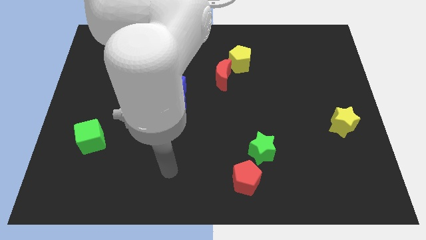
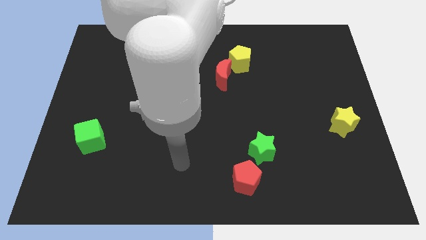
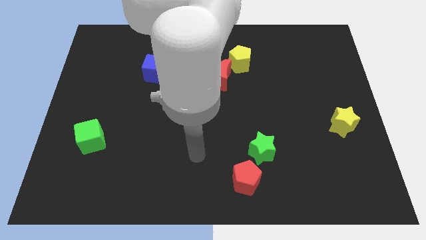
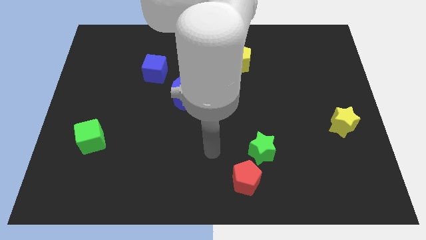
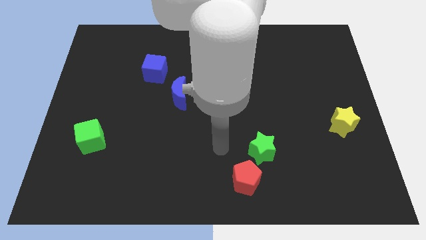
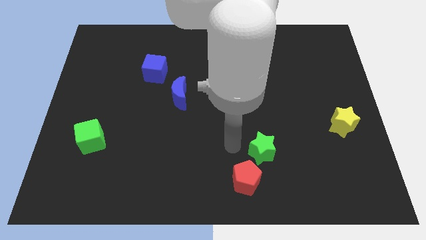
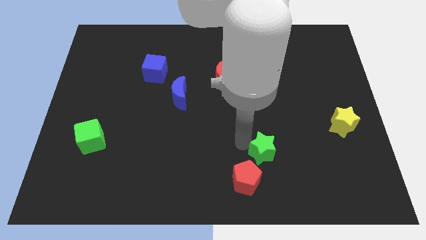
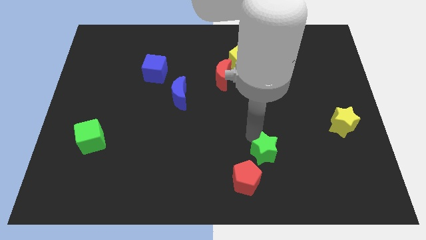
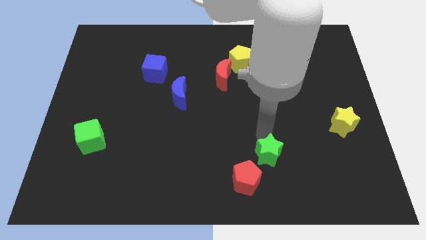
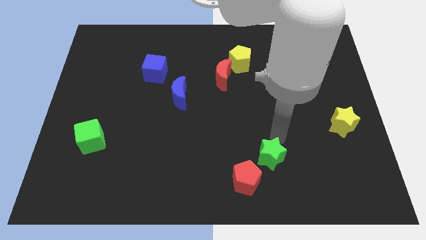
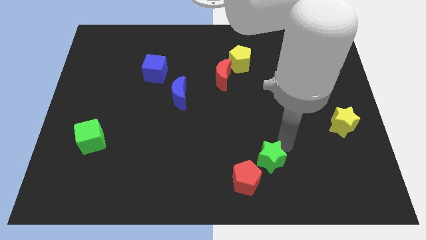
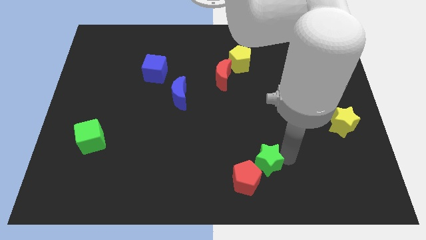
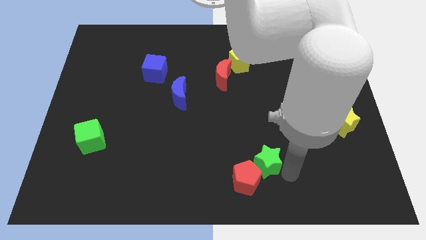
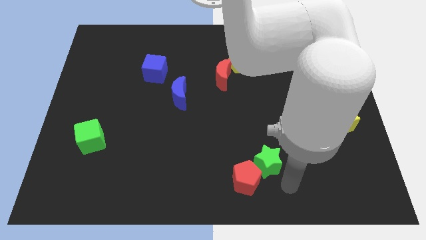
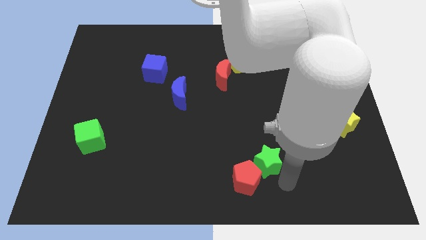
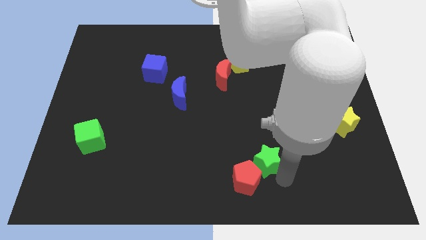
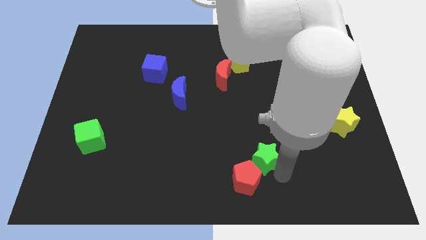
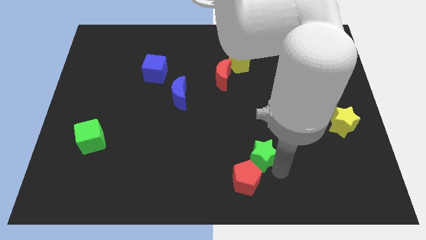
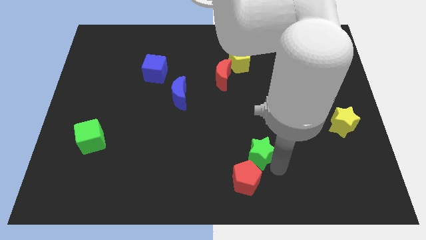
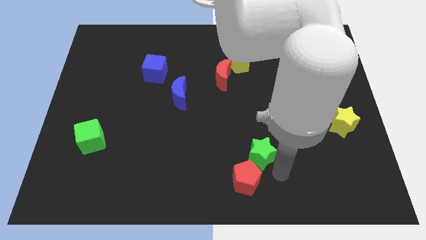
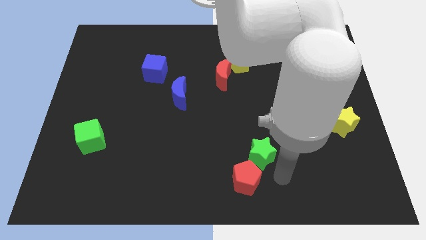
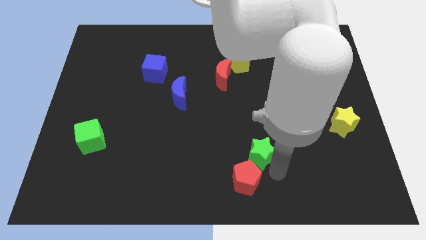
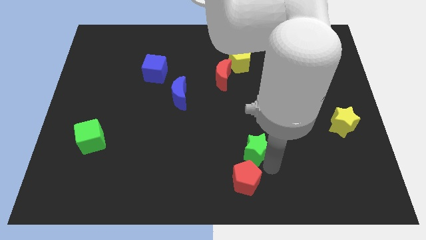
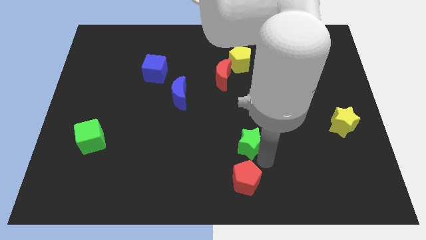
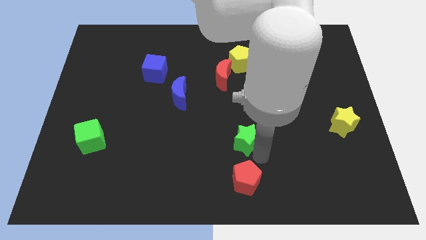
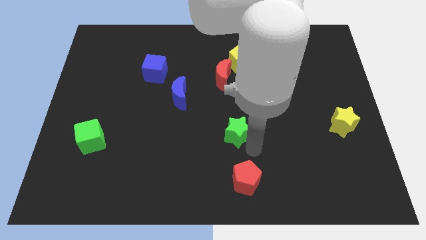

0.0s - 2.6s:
slide the green star somewhat diagonally up and left

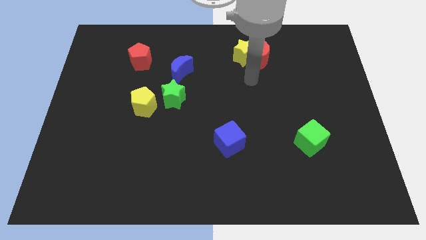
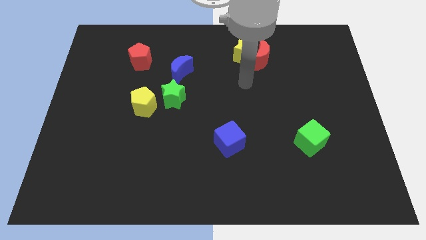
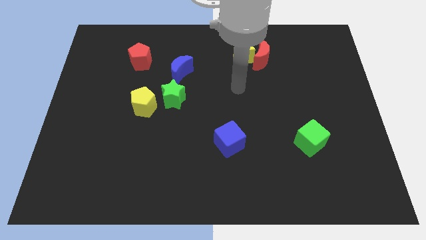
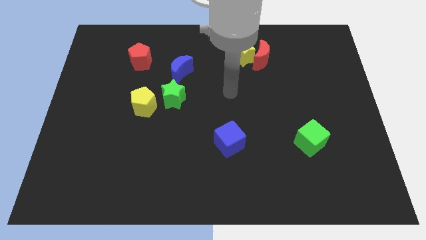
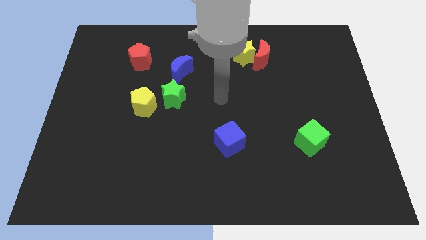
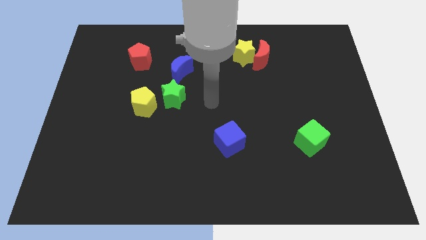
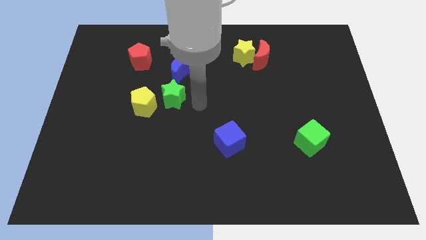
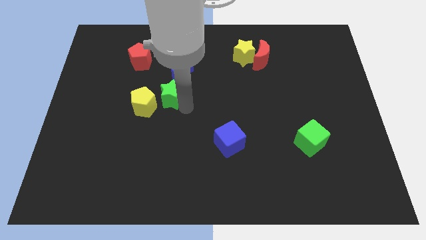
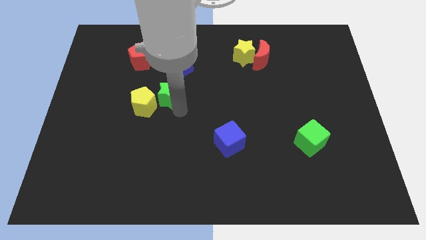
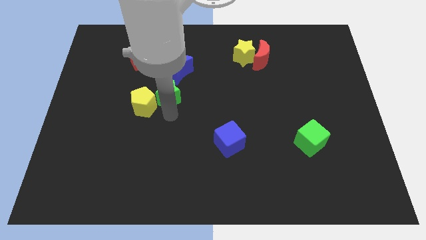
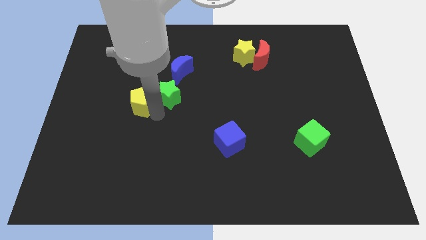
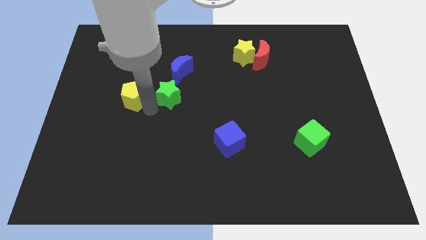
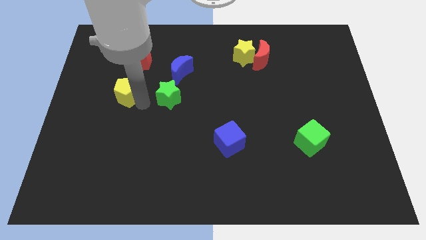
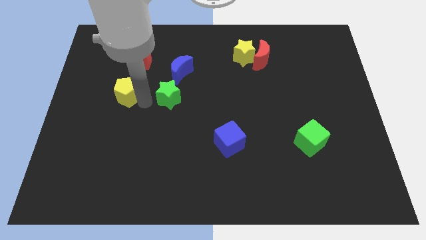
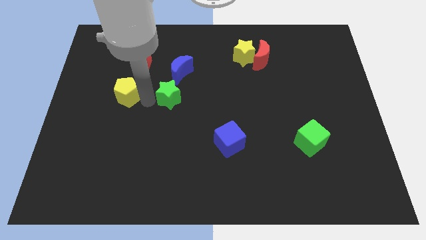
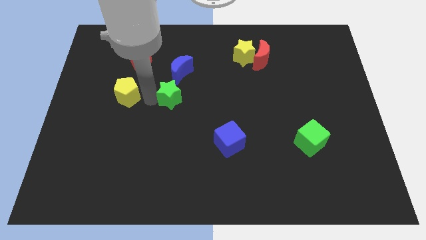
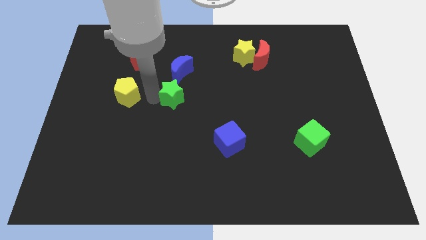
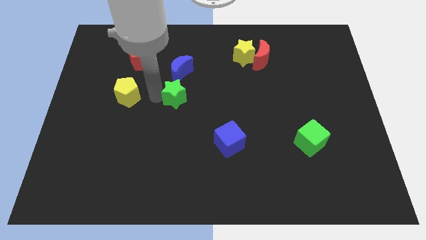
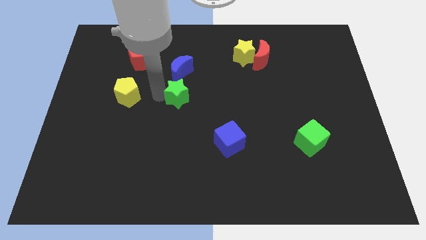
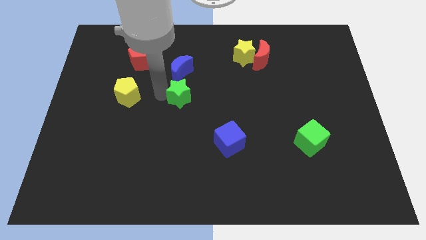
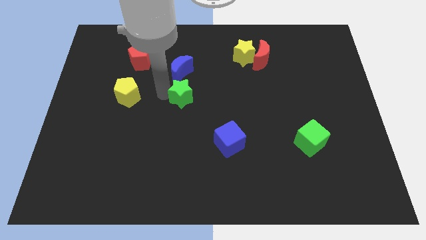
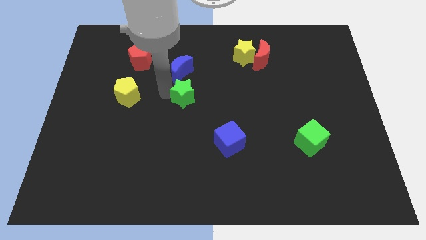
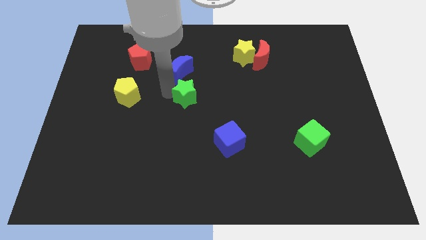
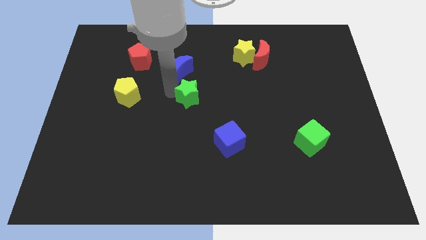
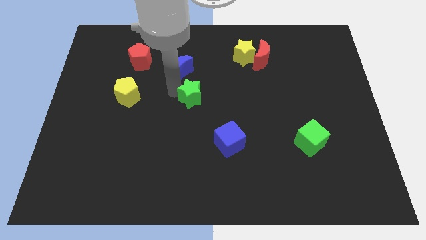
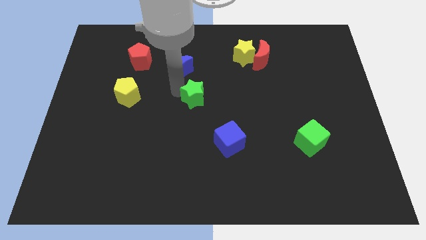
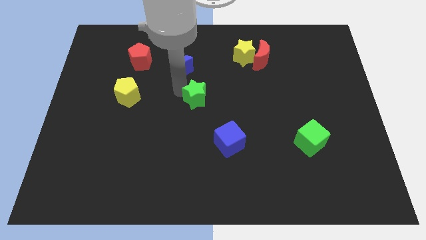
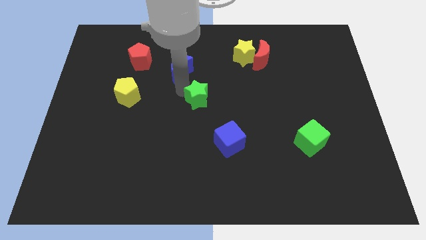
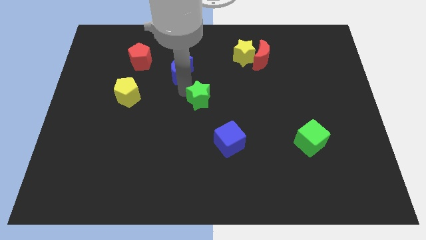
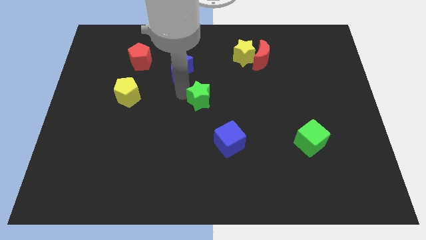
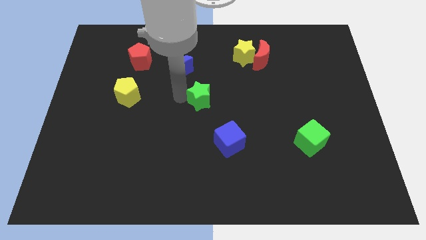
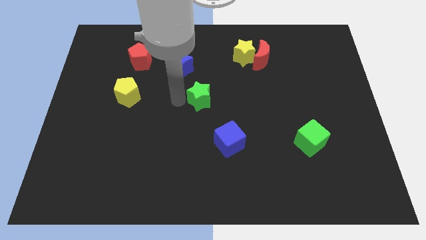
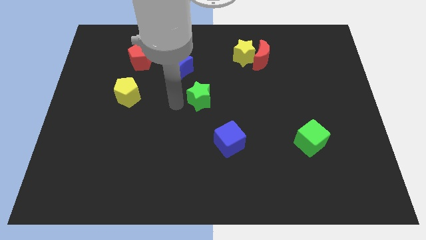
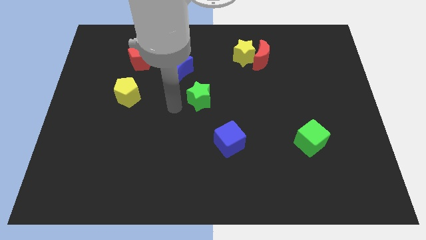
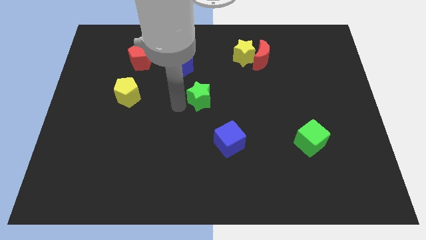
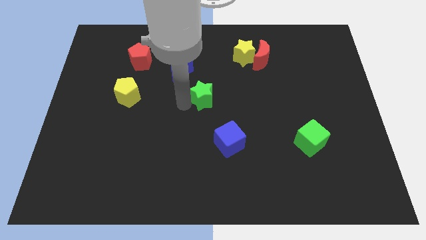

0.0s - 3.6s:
slide the green star right a little

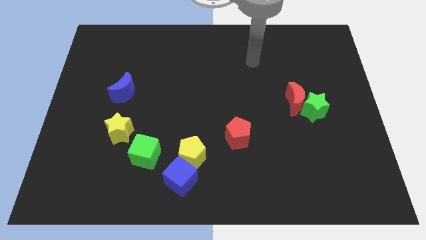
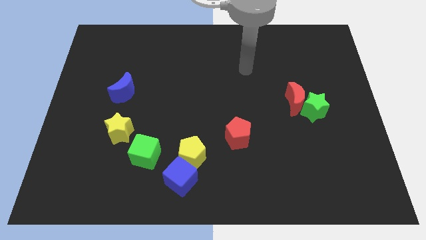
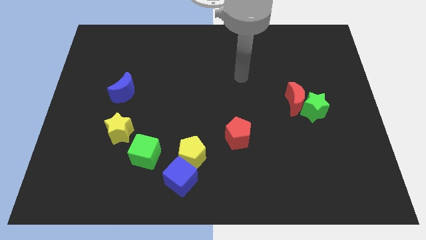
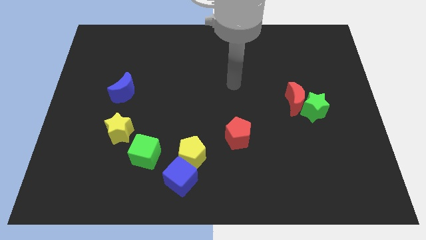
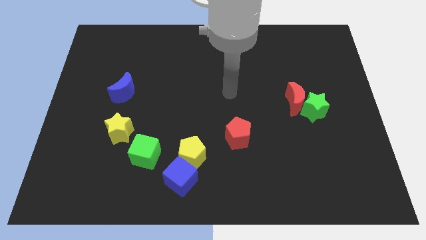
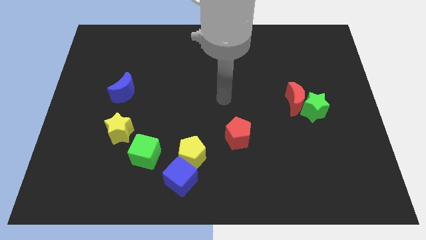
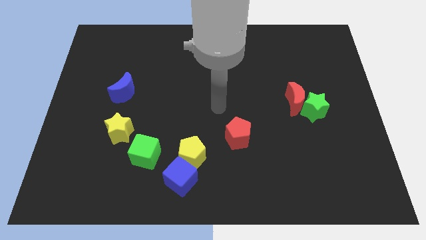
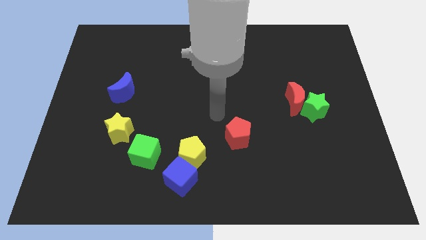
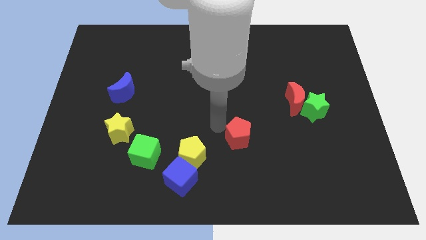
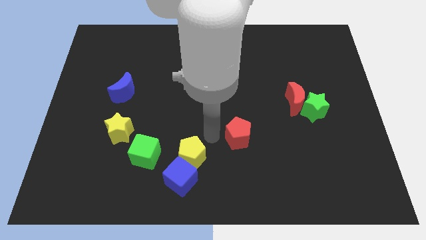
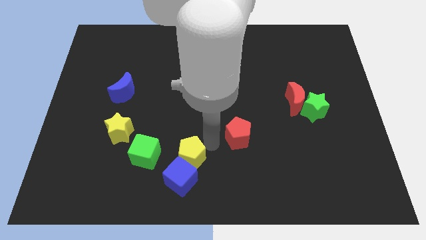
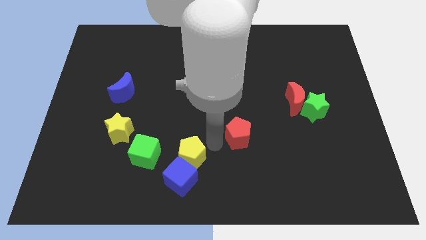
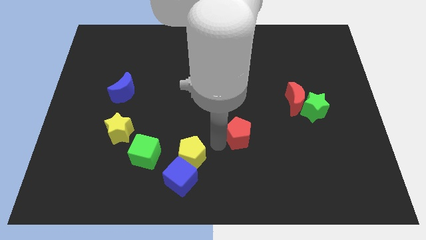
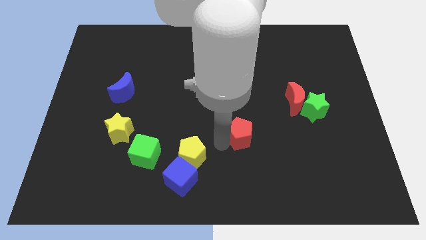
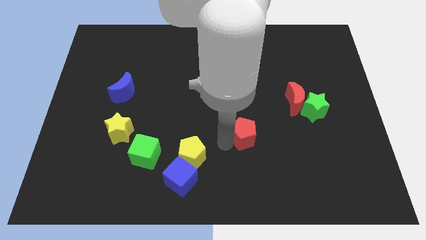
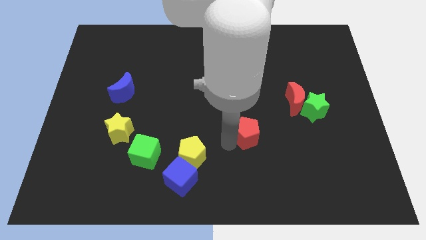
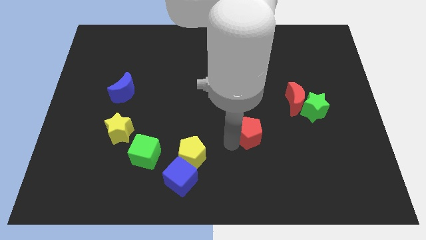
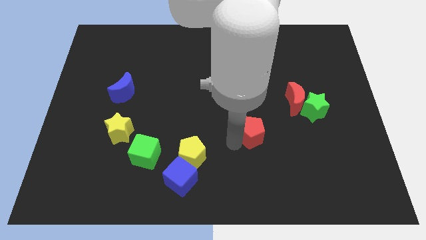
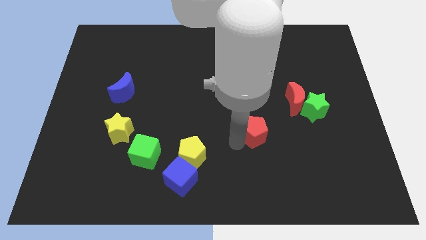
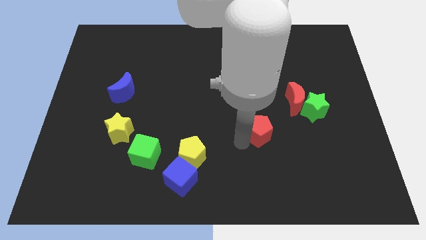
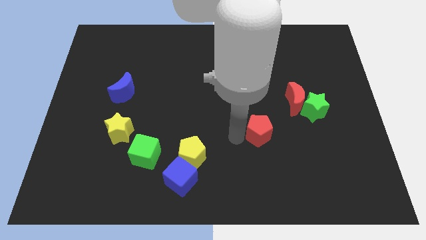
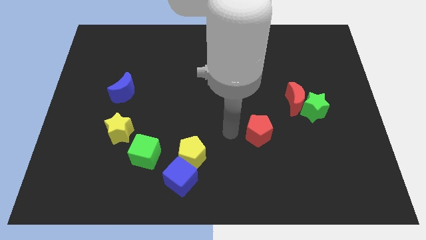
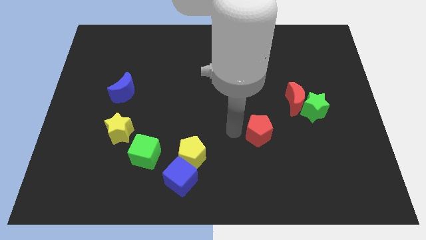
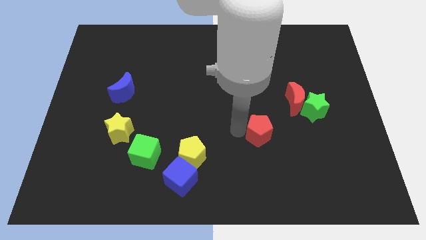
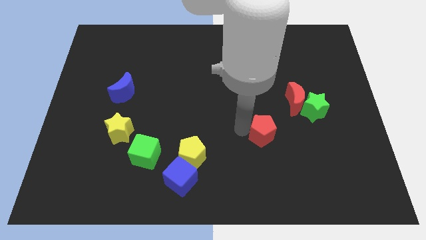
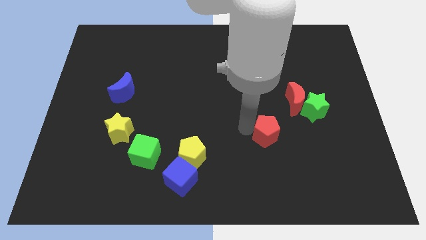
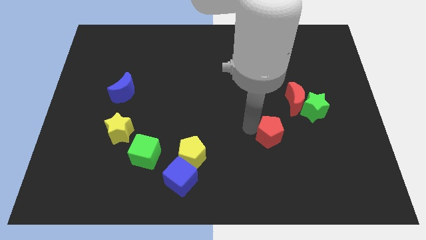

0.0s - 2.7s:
slightly slide the red pentagon right

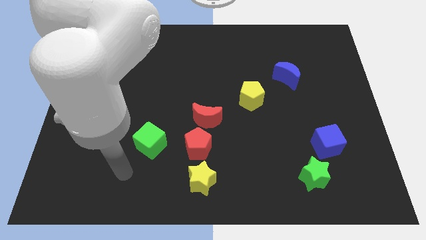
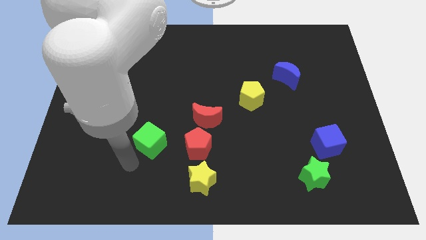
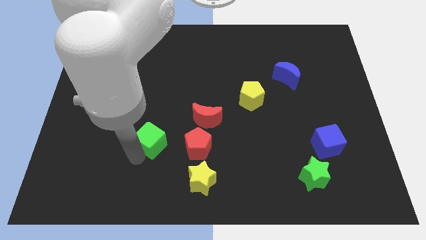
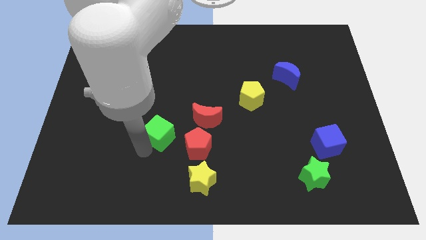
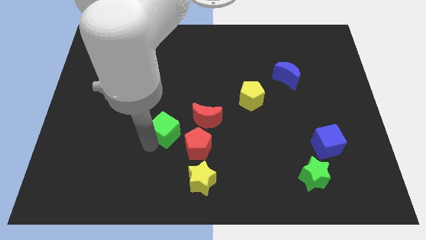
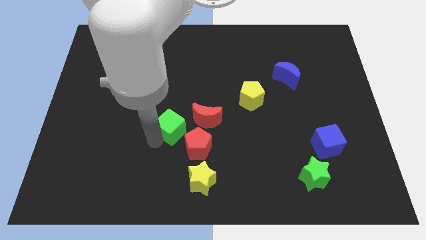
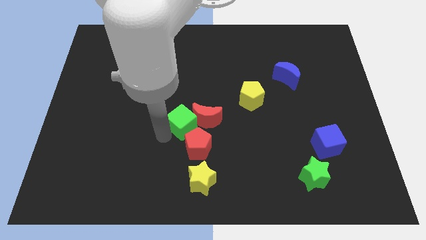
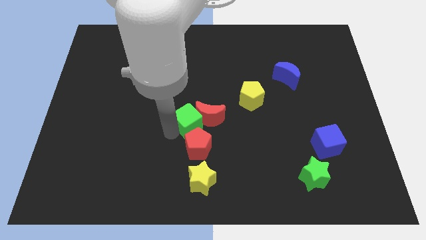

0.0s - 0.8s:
move the green cube slightly to the right
